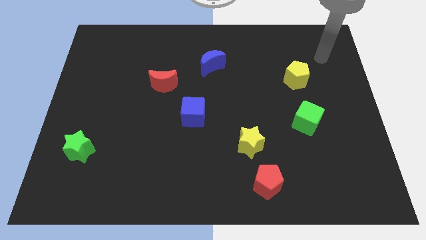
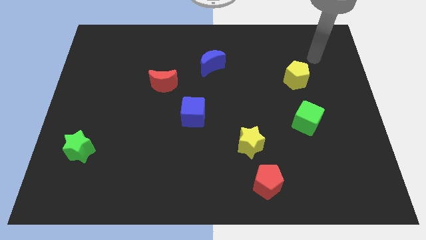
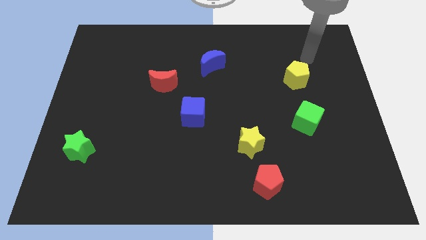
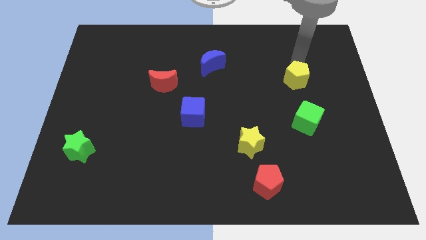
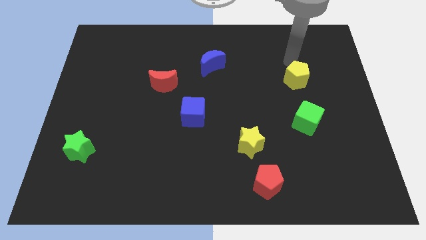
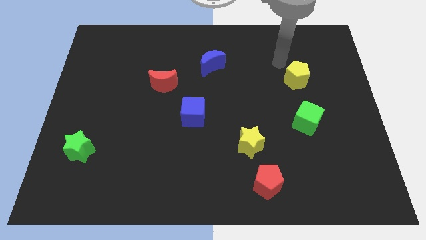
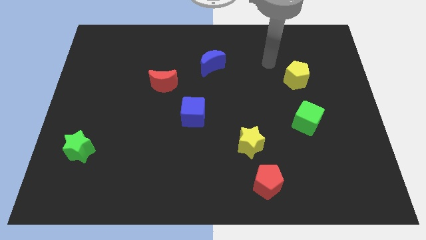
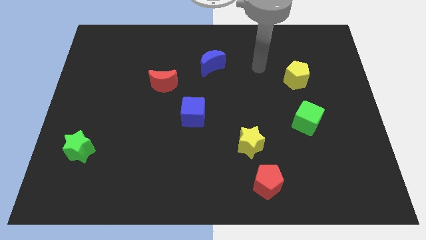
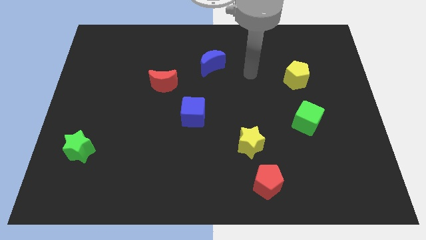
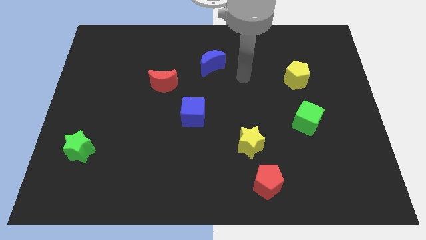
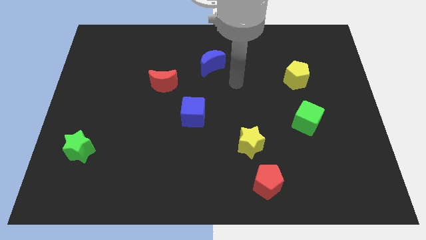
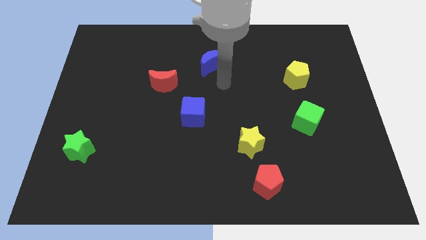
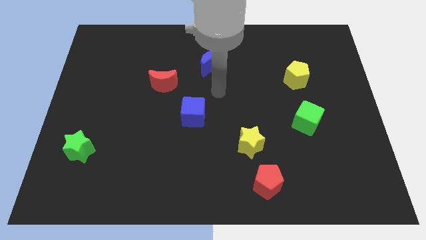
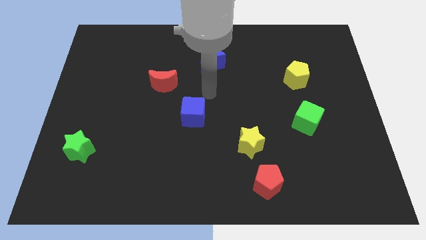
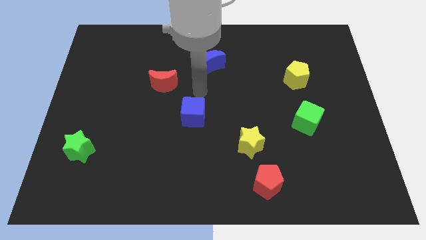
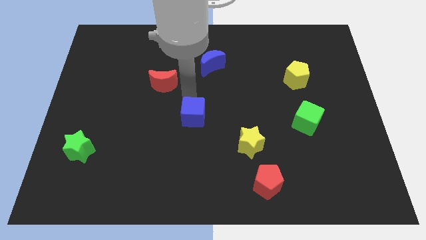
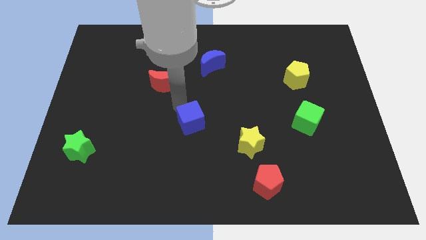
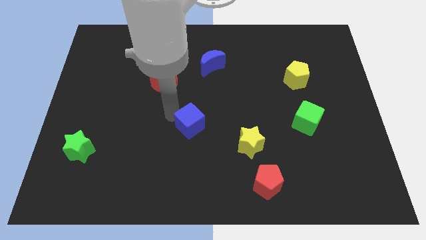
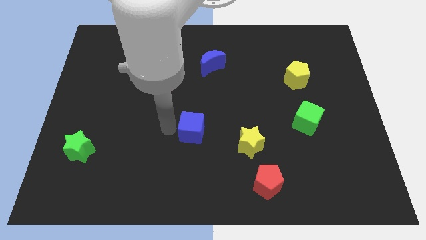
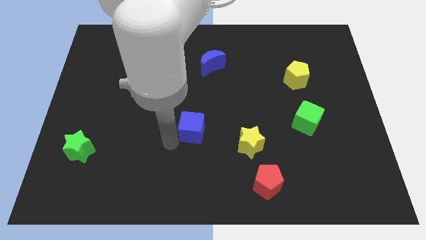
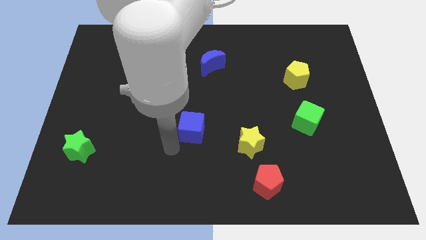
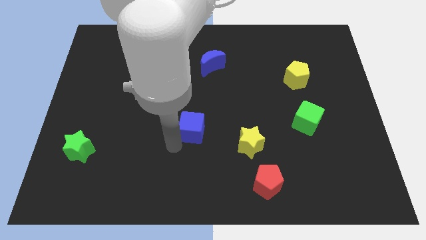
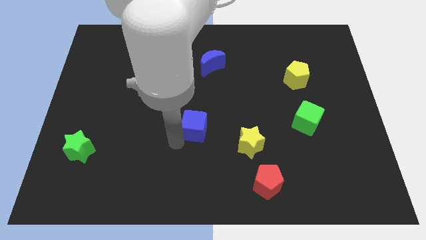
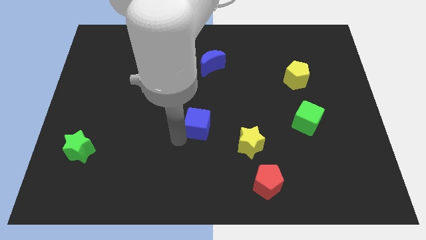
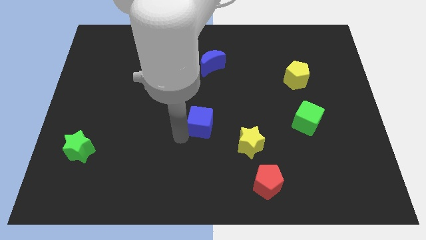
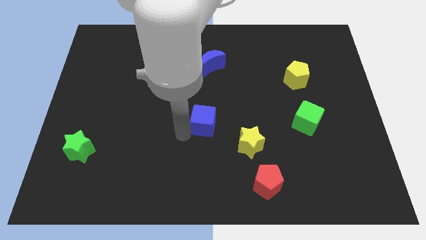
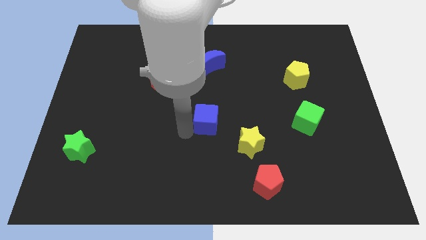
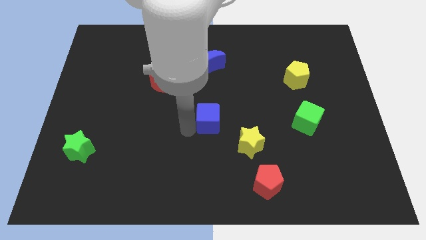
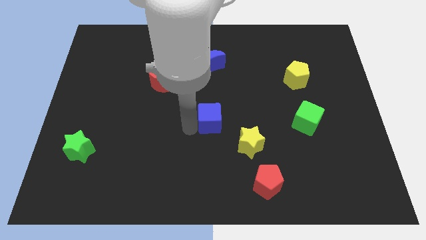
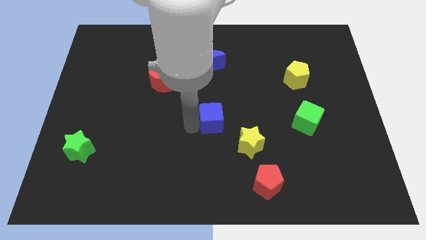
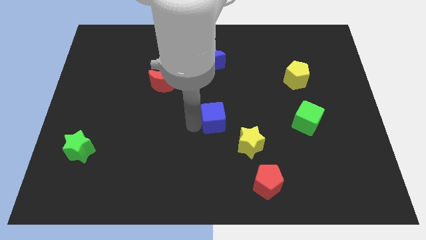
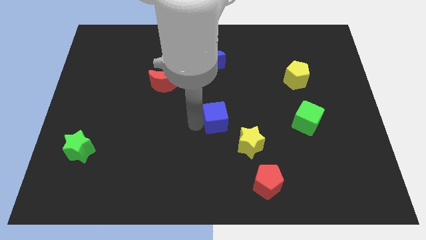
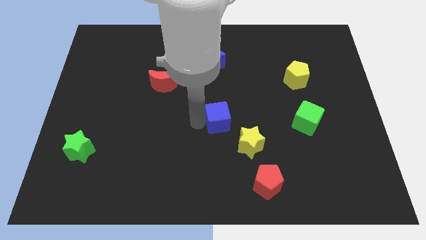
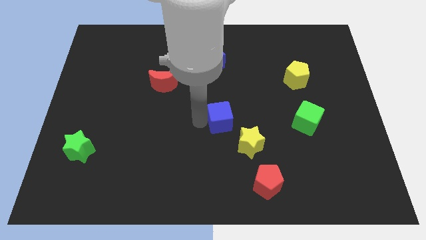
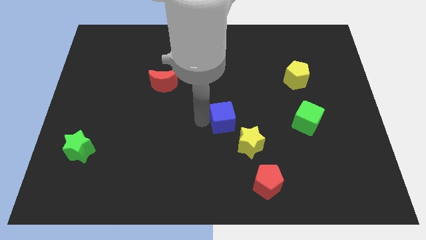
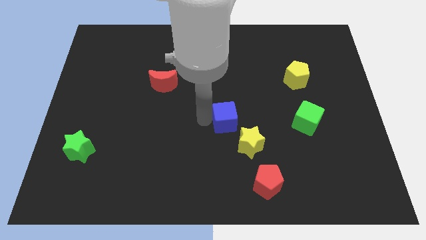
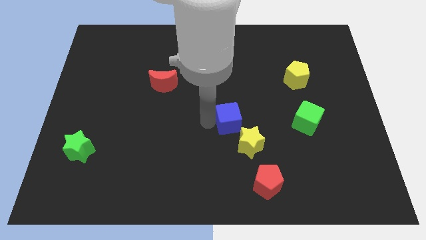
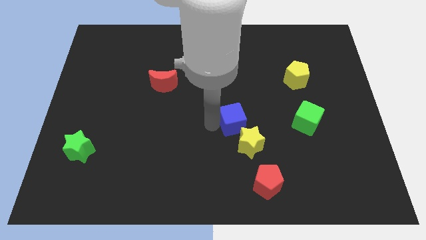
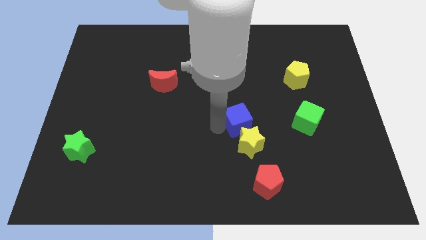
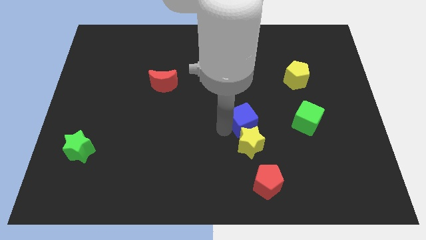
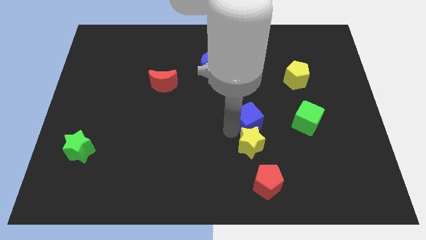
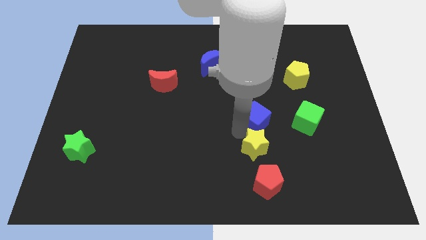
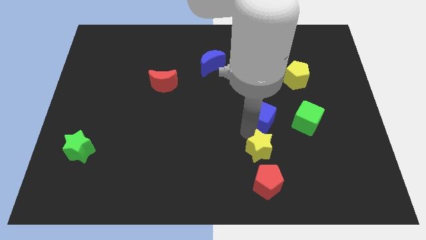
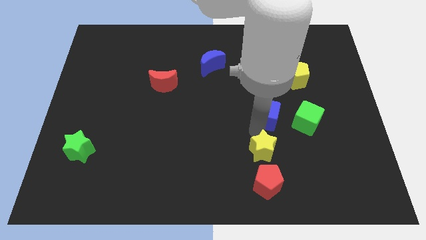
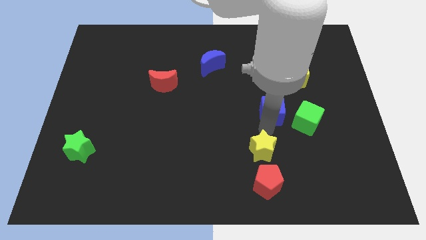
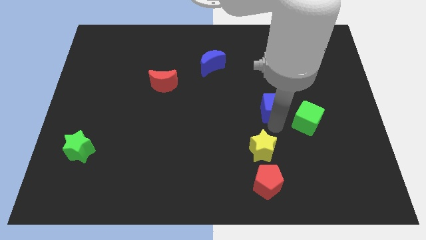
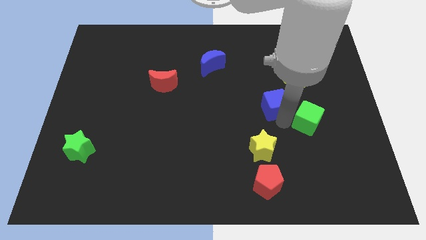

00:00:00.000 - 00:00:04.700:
slightly push the blue cube upwards and to the right

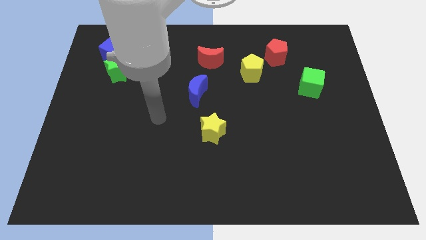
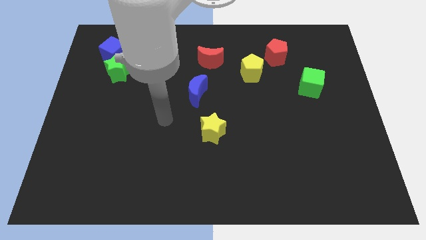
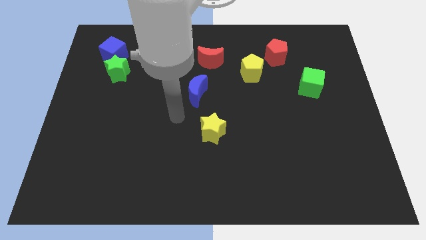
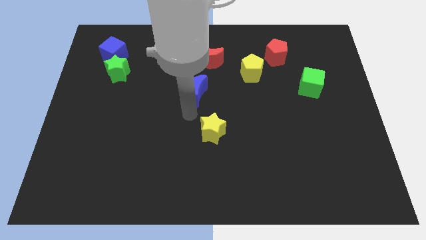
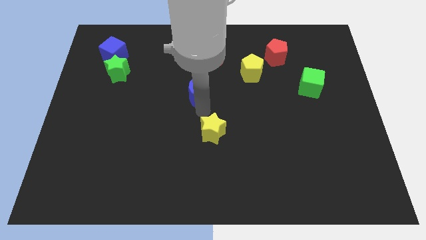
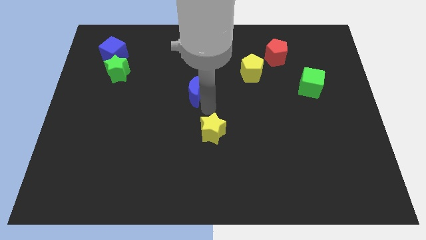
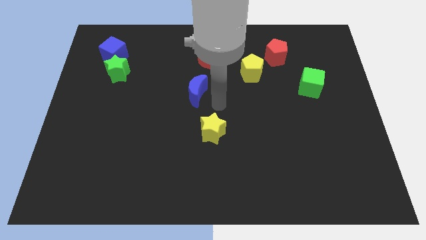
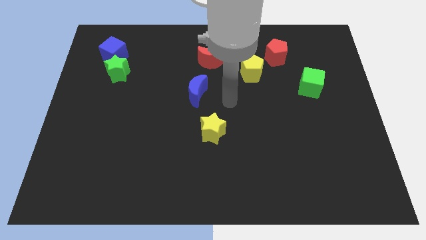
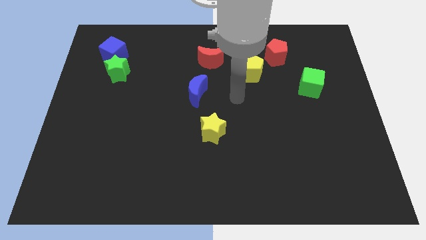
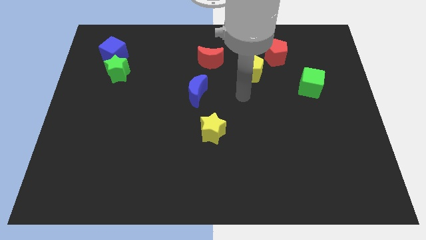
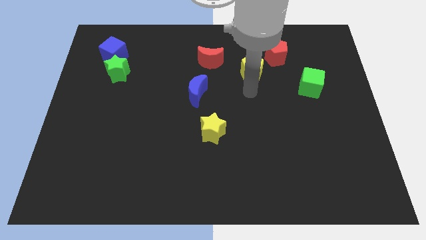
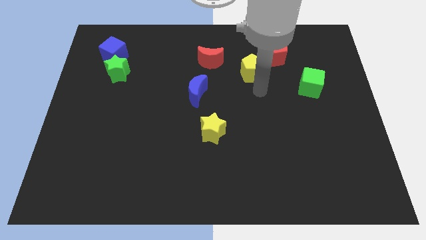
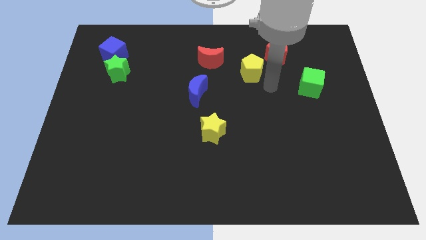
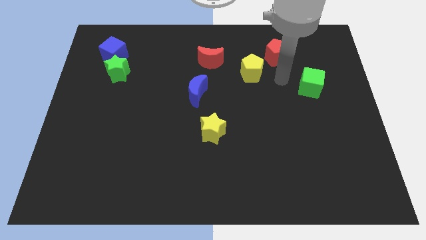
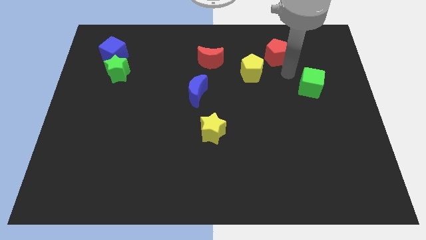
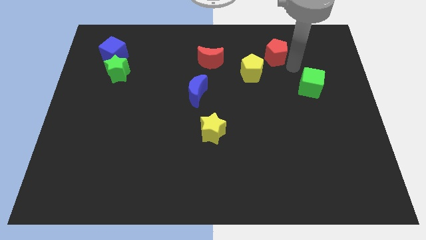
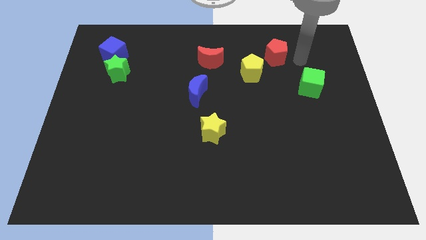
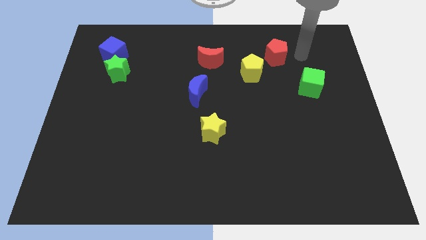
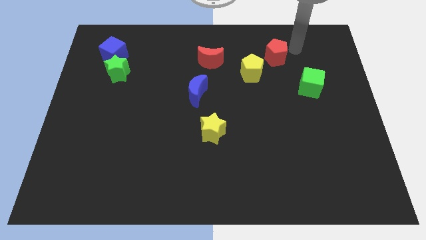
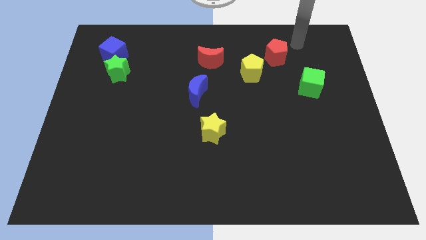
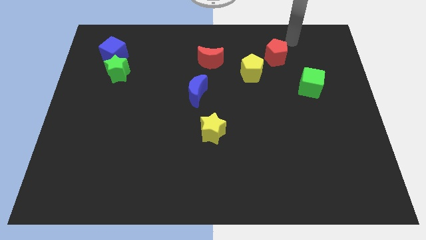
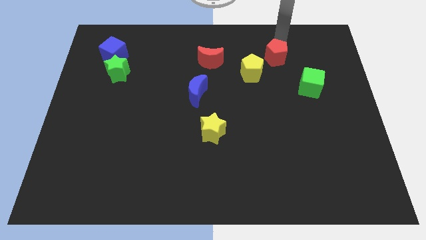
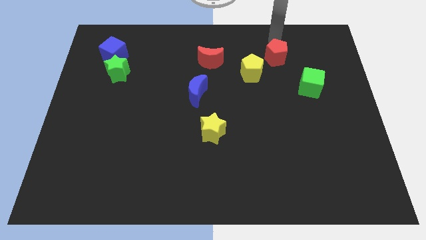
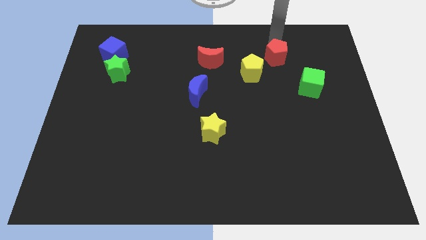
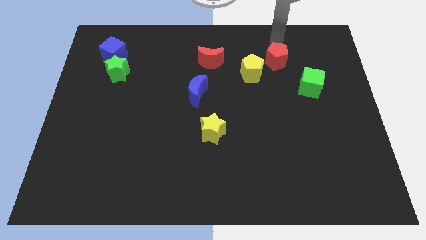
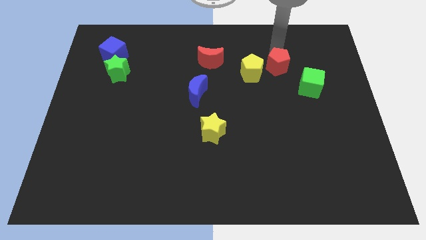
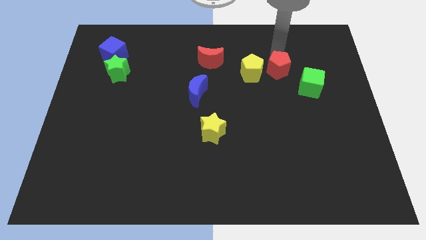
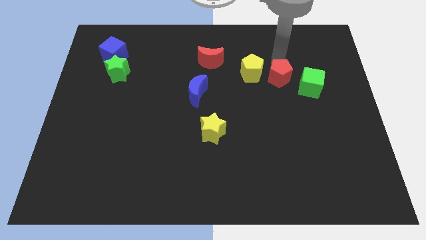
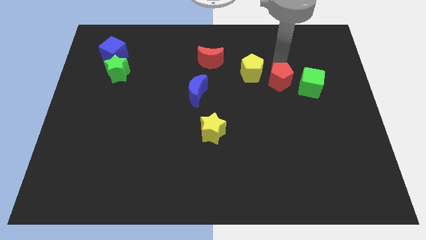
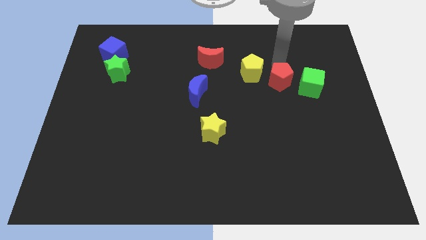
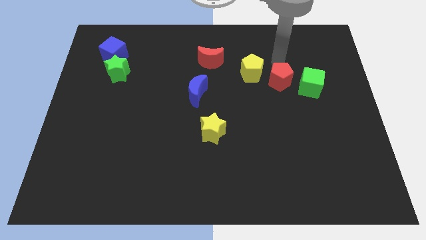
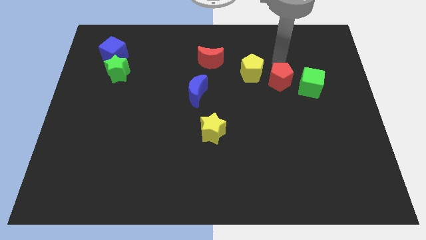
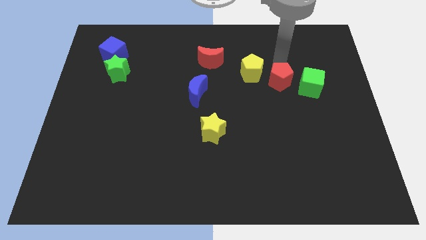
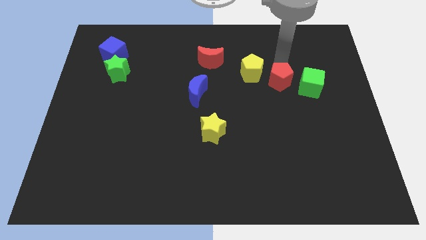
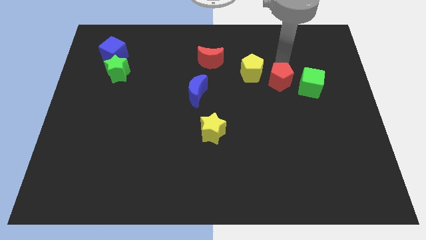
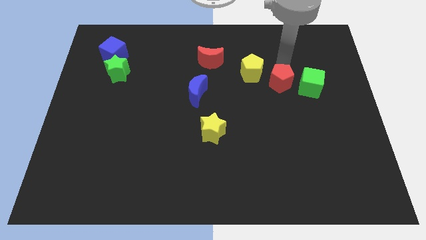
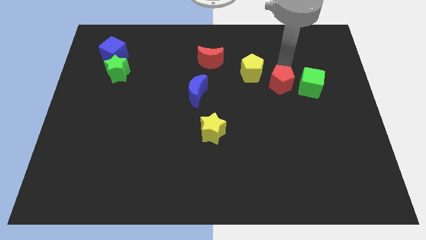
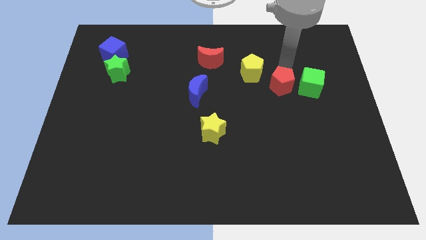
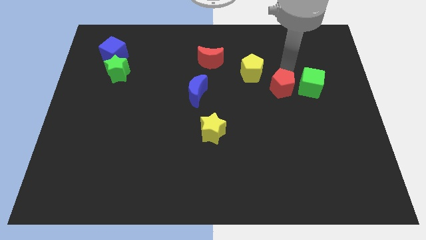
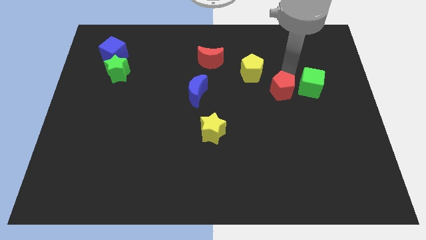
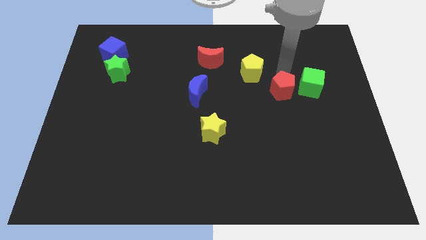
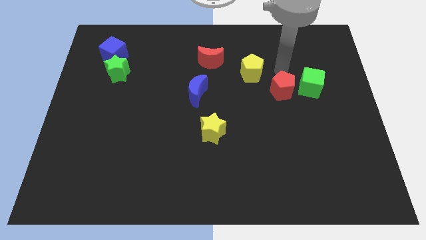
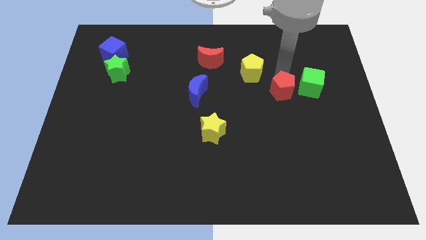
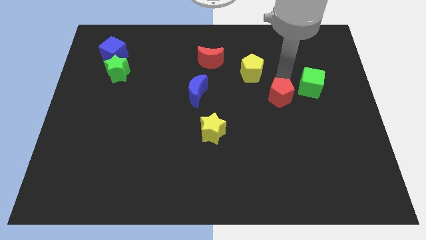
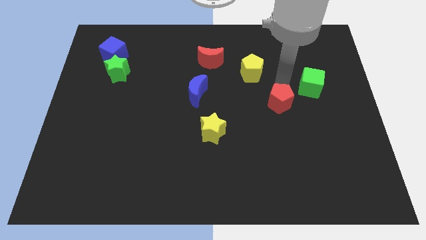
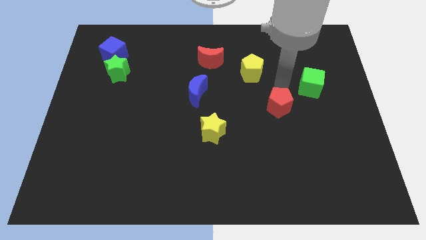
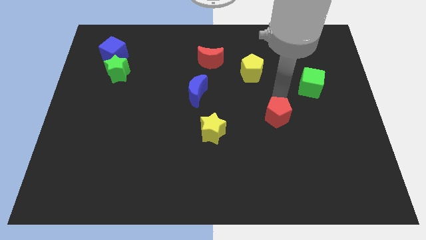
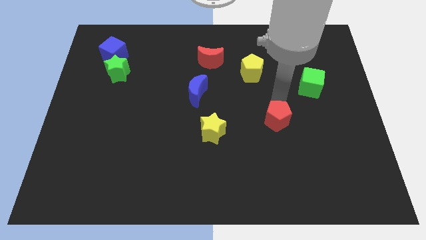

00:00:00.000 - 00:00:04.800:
push the red pentagon down
